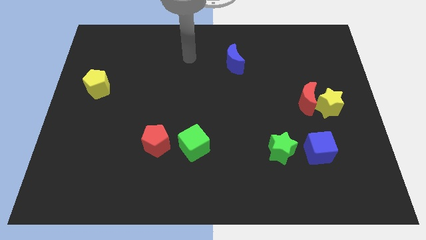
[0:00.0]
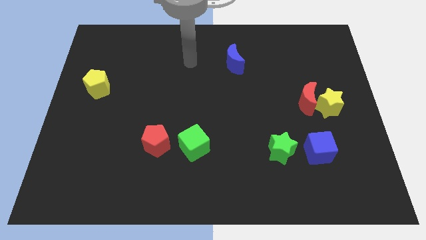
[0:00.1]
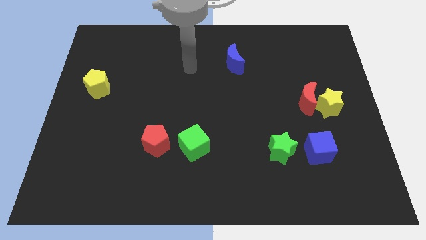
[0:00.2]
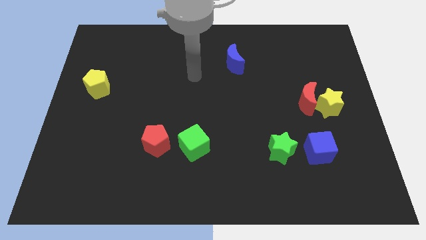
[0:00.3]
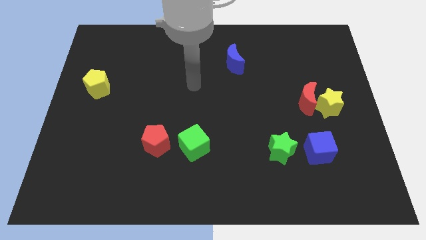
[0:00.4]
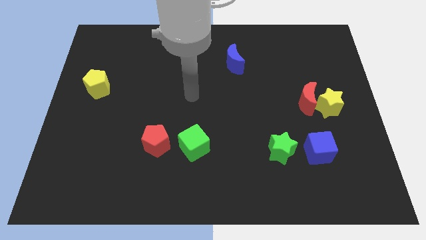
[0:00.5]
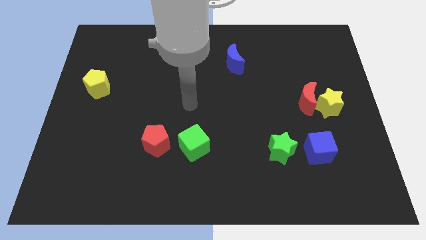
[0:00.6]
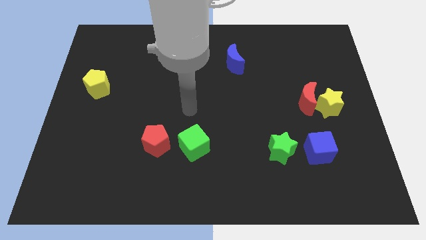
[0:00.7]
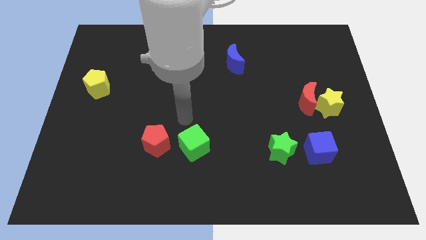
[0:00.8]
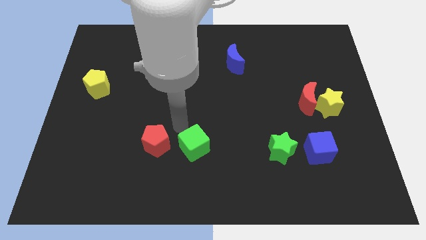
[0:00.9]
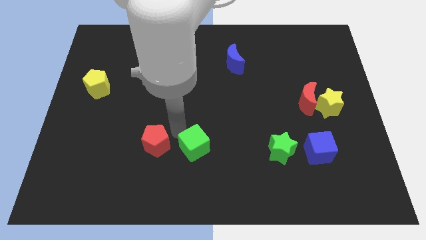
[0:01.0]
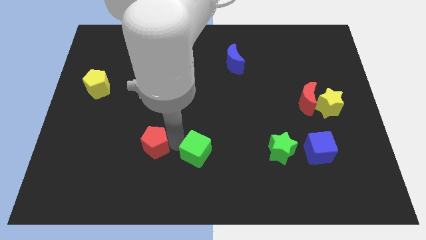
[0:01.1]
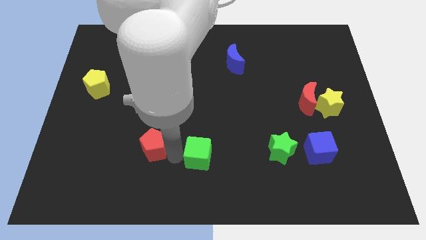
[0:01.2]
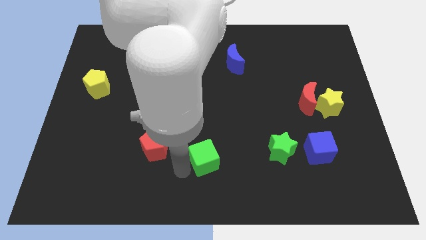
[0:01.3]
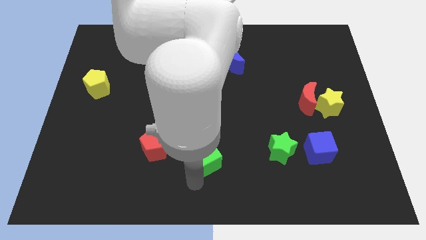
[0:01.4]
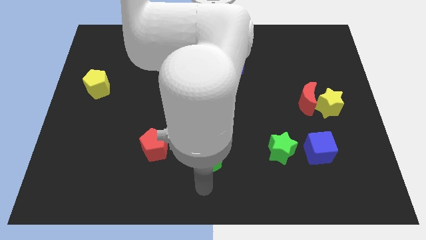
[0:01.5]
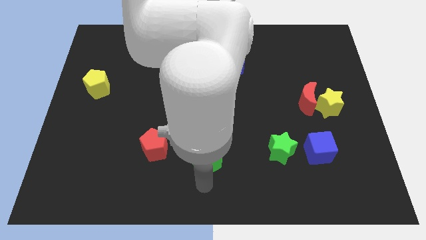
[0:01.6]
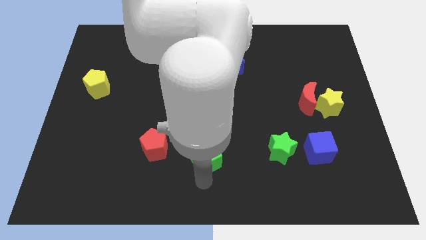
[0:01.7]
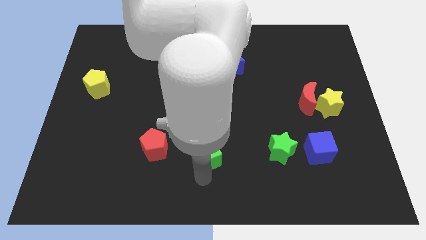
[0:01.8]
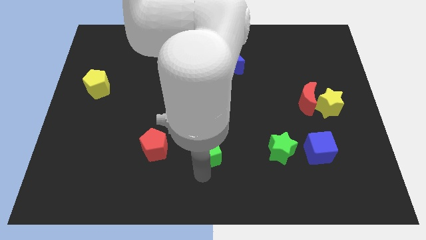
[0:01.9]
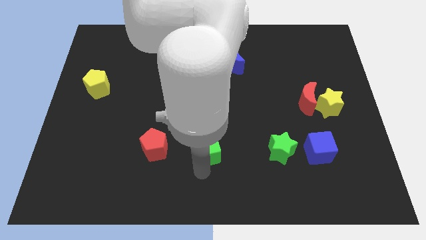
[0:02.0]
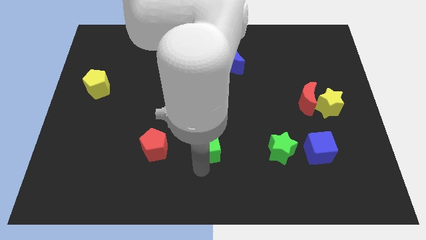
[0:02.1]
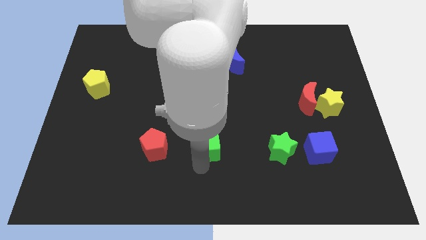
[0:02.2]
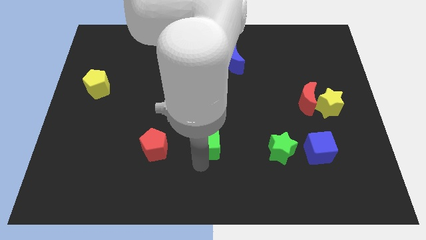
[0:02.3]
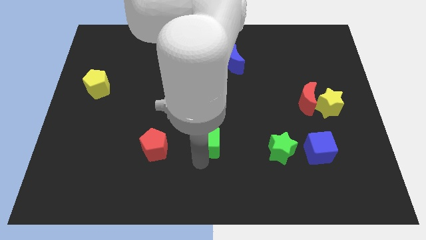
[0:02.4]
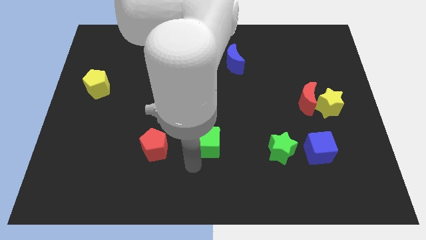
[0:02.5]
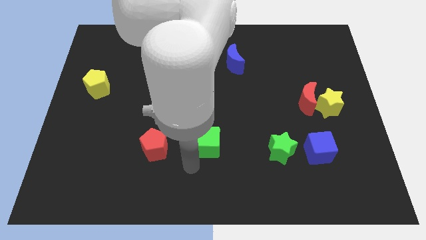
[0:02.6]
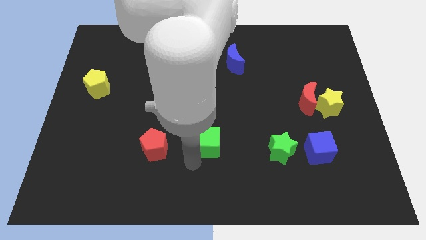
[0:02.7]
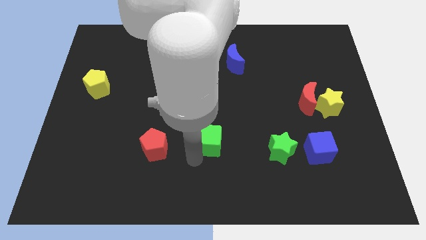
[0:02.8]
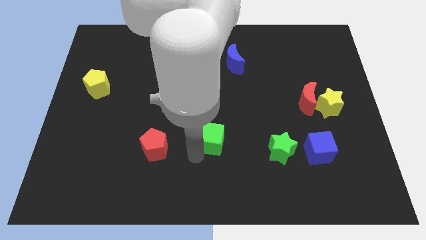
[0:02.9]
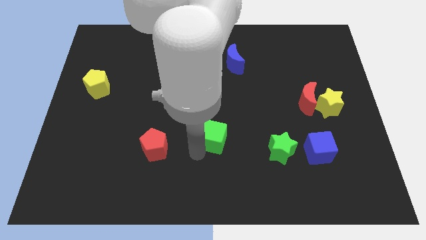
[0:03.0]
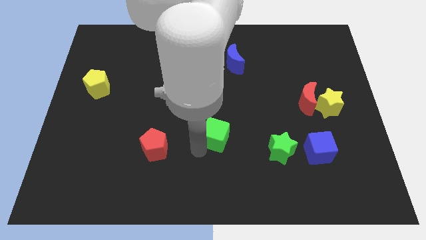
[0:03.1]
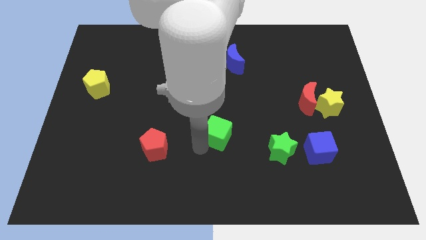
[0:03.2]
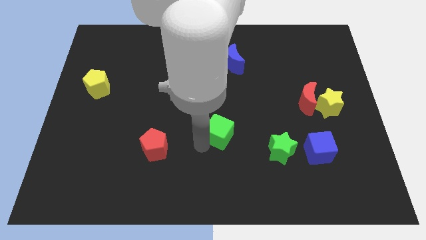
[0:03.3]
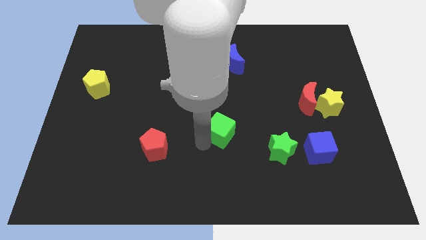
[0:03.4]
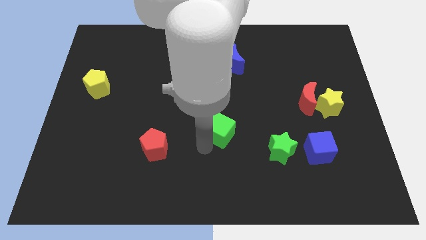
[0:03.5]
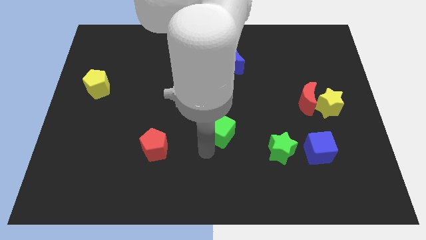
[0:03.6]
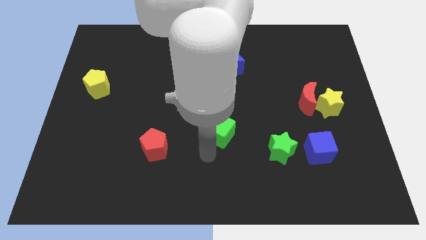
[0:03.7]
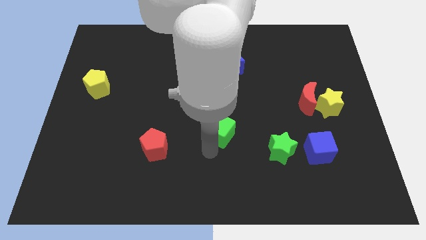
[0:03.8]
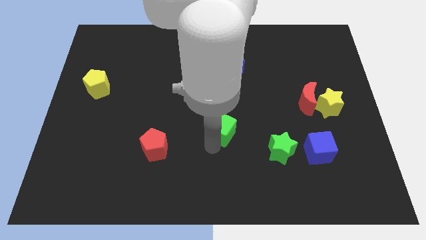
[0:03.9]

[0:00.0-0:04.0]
slightly move the green cube upwards and right

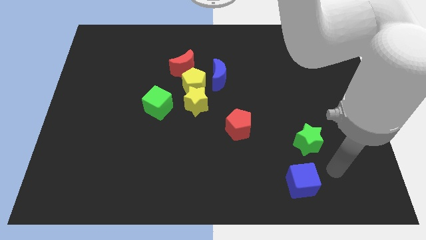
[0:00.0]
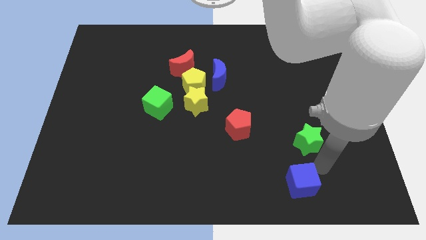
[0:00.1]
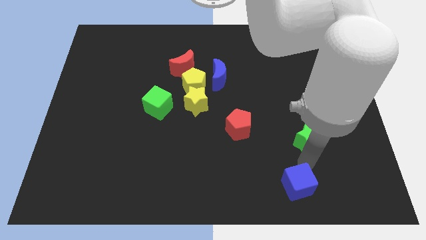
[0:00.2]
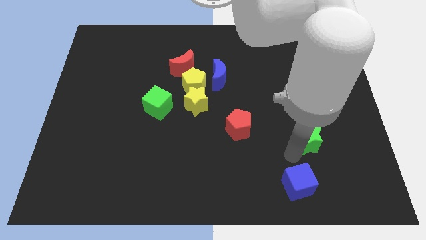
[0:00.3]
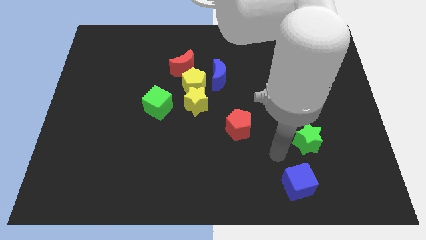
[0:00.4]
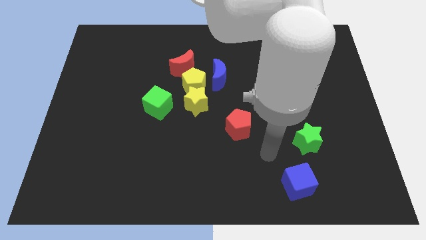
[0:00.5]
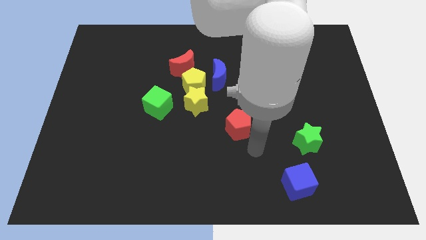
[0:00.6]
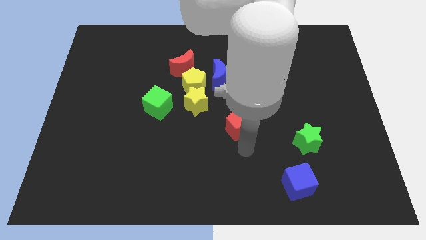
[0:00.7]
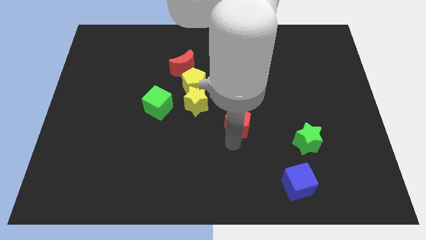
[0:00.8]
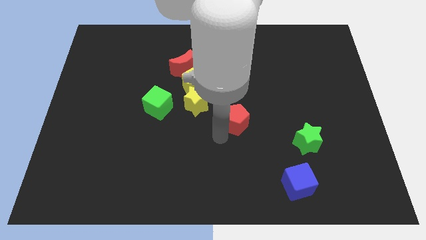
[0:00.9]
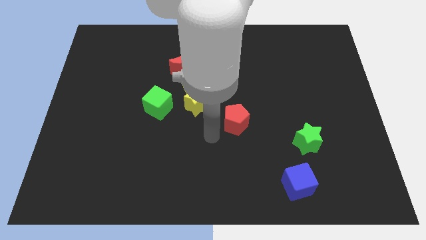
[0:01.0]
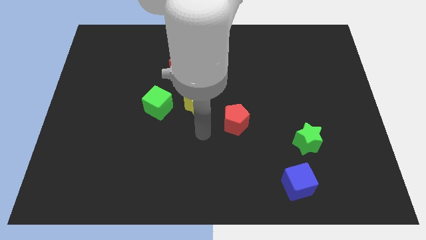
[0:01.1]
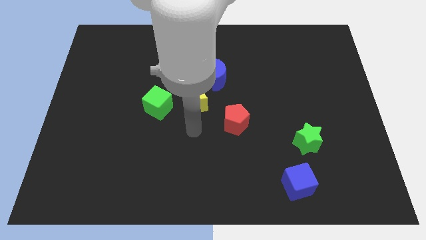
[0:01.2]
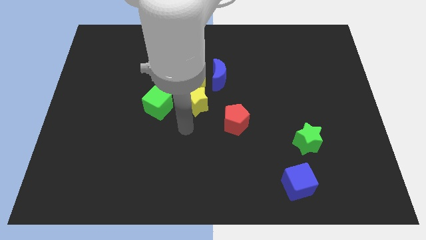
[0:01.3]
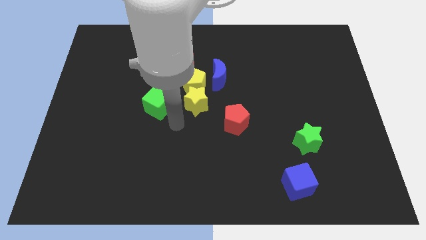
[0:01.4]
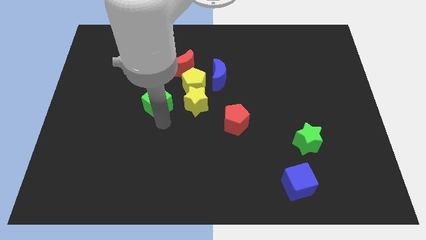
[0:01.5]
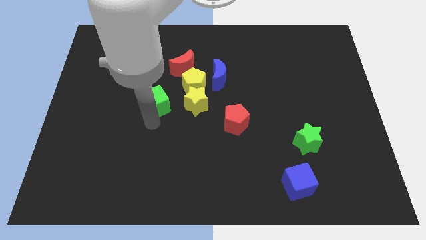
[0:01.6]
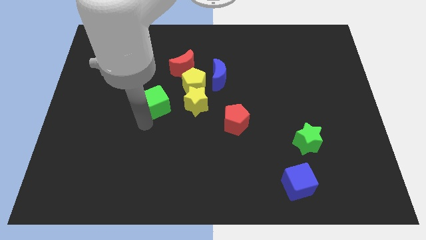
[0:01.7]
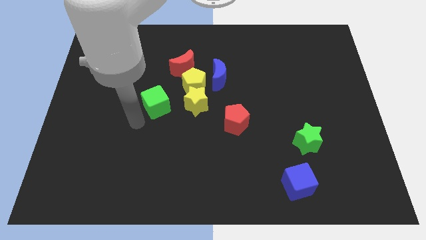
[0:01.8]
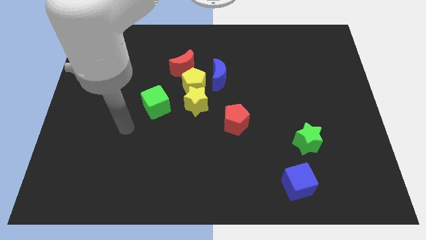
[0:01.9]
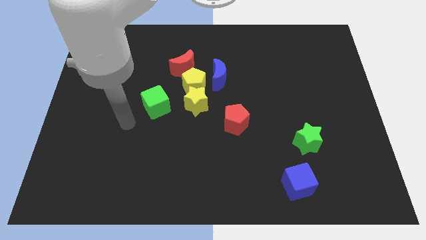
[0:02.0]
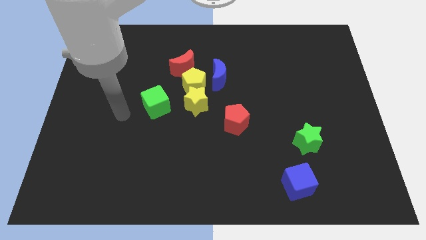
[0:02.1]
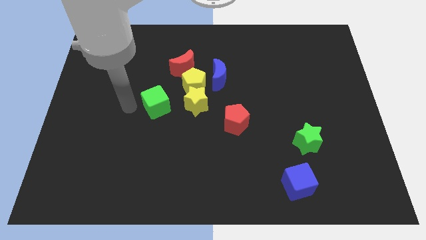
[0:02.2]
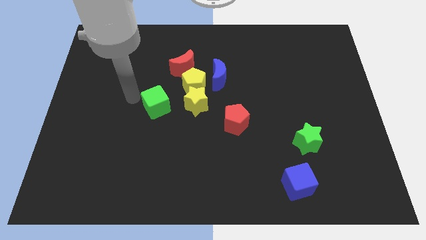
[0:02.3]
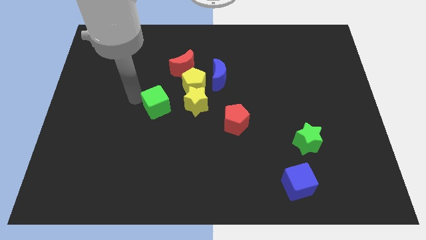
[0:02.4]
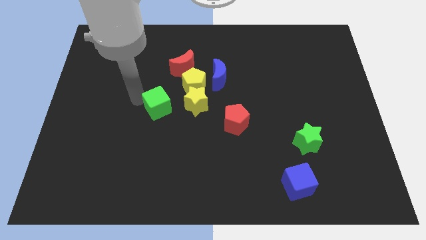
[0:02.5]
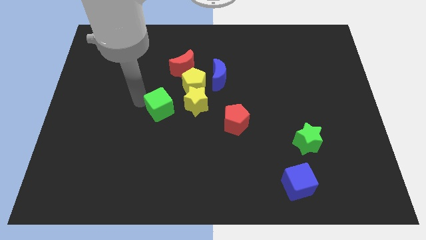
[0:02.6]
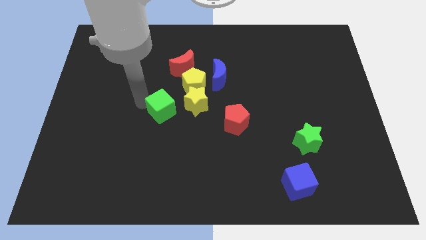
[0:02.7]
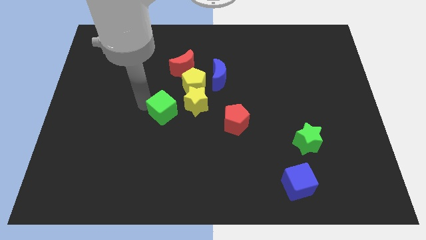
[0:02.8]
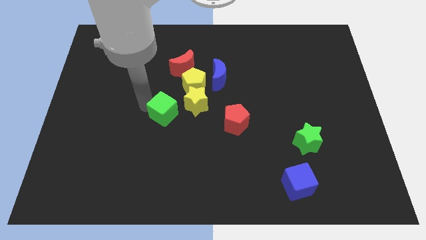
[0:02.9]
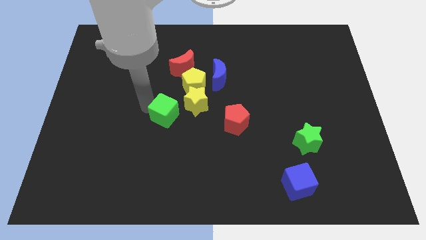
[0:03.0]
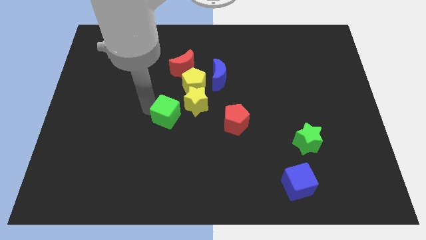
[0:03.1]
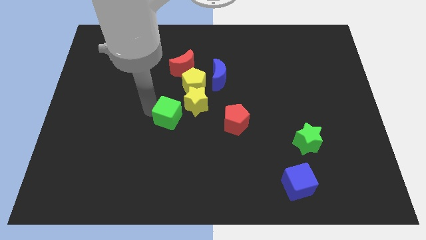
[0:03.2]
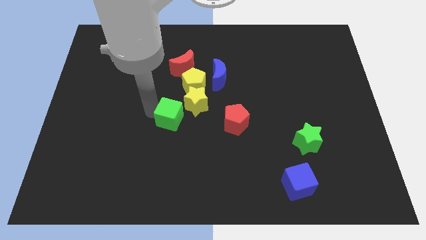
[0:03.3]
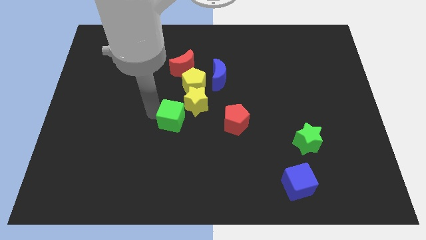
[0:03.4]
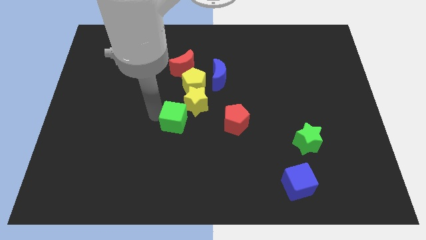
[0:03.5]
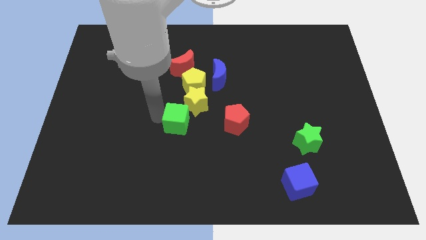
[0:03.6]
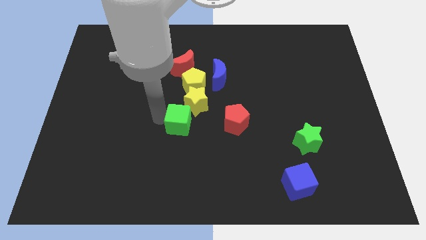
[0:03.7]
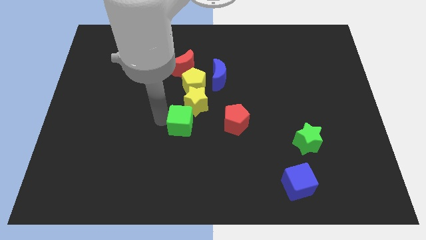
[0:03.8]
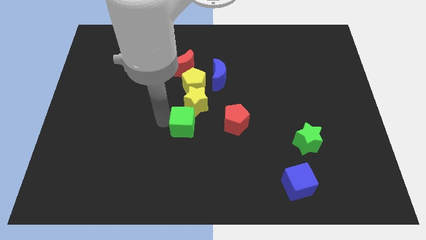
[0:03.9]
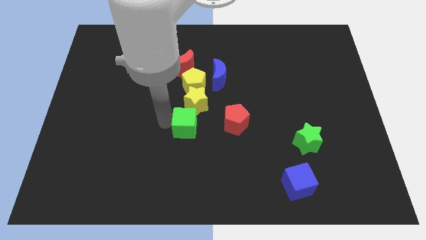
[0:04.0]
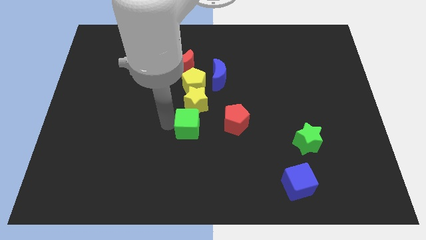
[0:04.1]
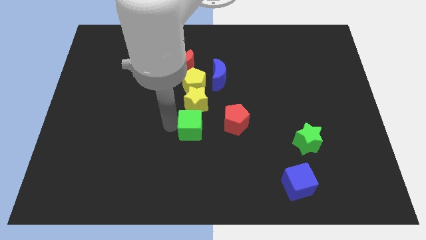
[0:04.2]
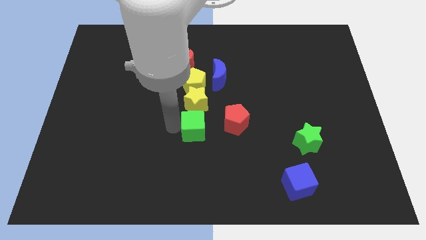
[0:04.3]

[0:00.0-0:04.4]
slightly move the green cube to the right
